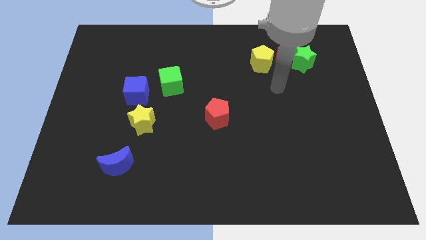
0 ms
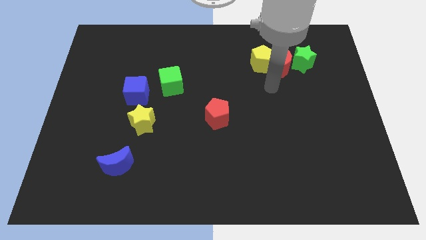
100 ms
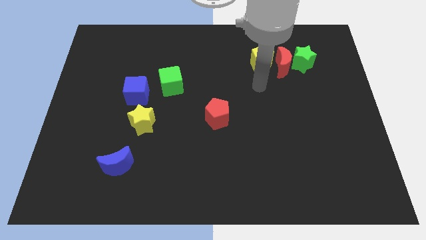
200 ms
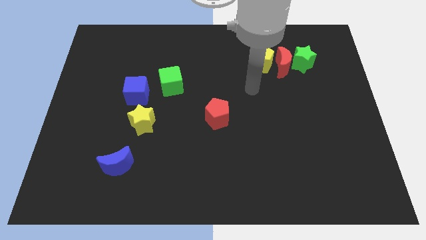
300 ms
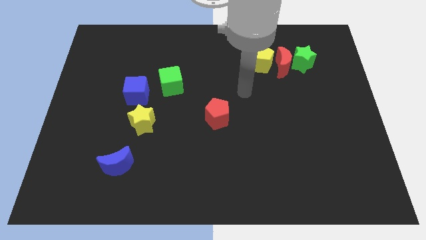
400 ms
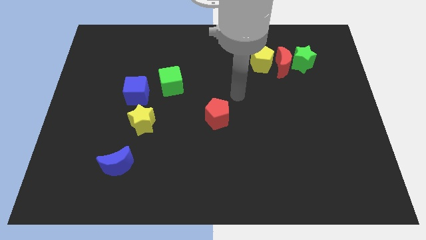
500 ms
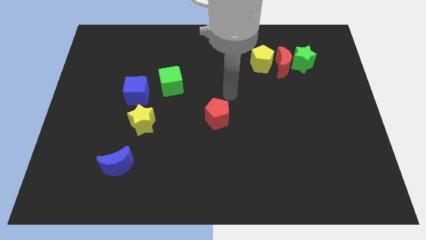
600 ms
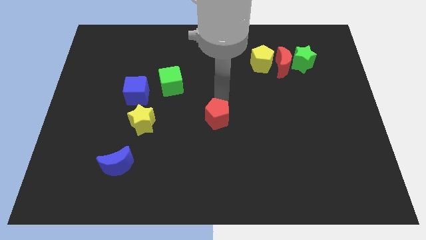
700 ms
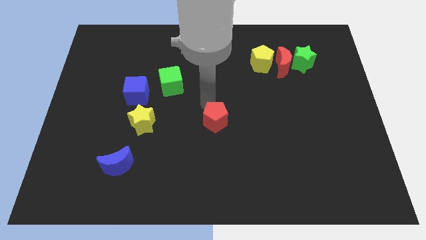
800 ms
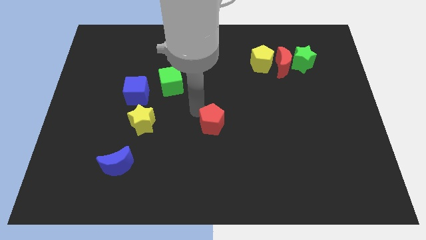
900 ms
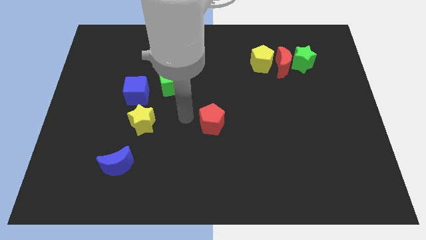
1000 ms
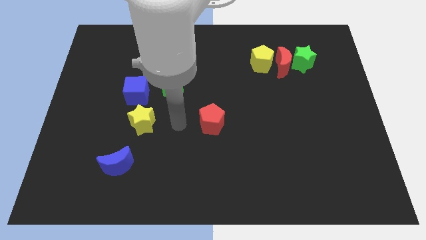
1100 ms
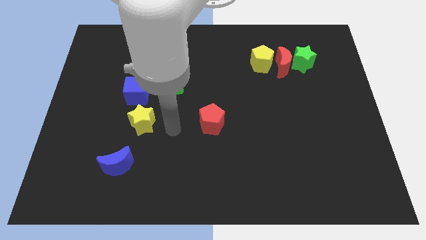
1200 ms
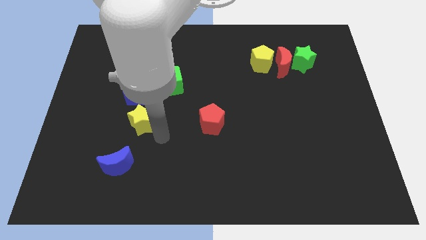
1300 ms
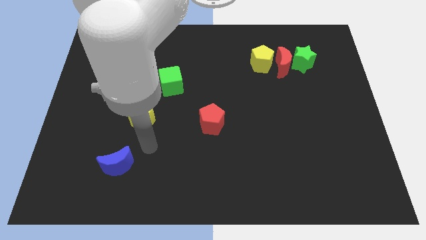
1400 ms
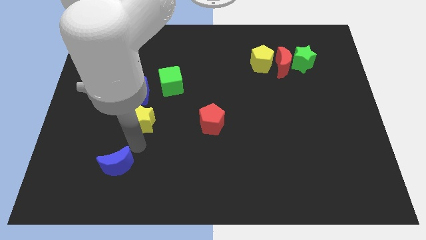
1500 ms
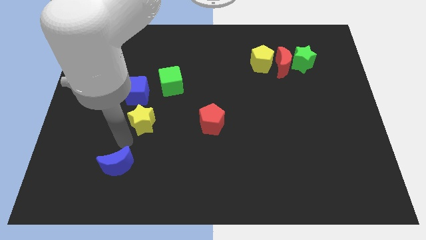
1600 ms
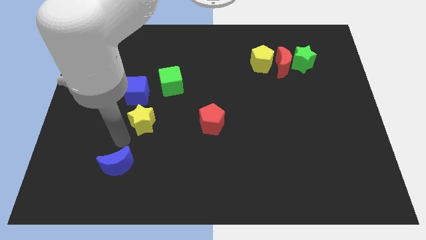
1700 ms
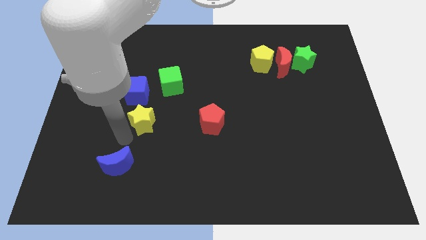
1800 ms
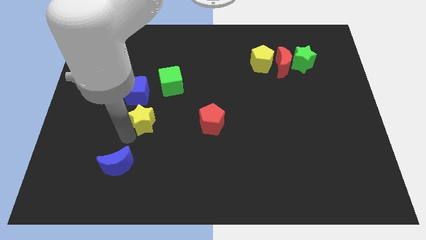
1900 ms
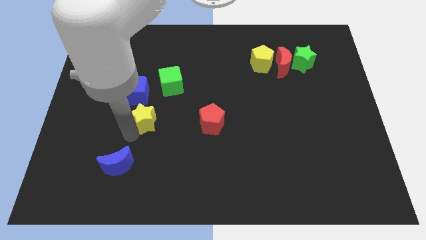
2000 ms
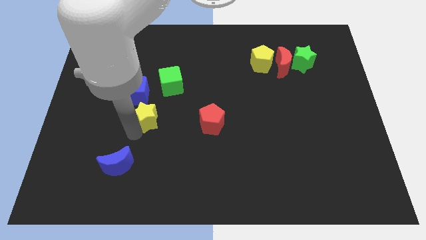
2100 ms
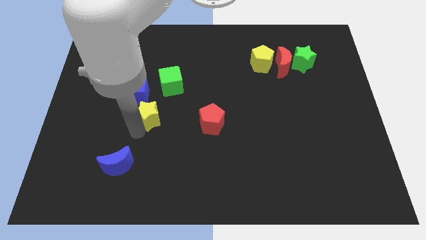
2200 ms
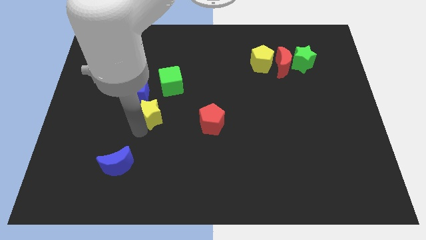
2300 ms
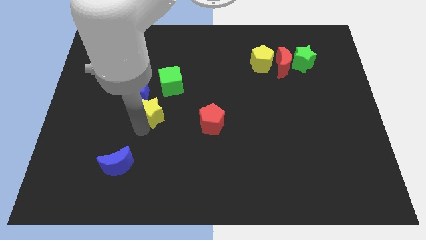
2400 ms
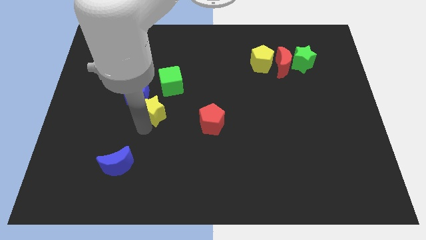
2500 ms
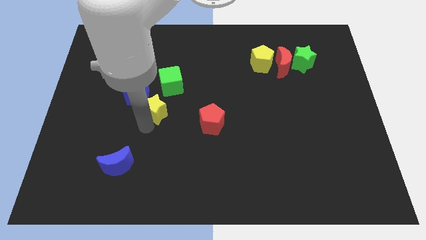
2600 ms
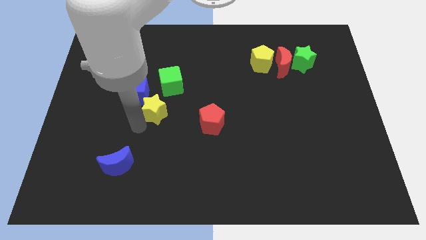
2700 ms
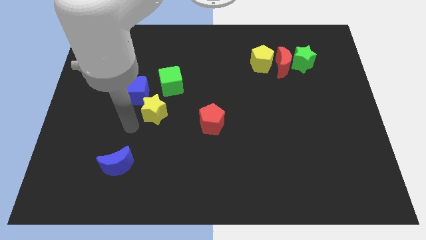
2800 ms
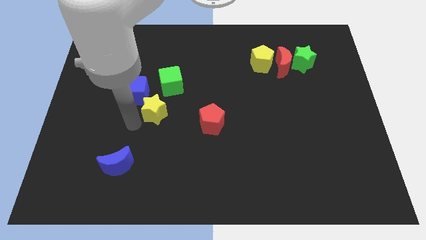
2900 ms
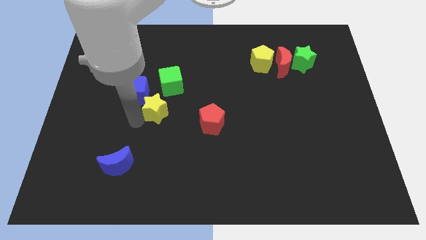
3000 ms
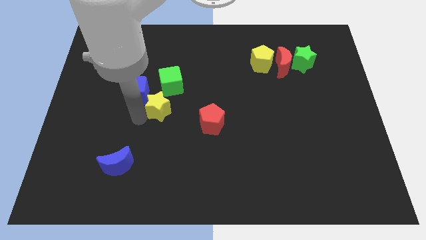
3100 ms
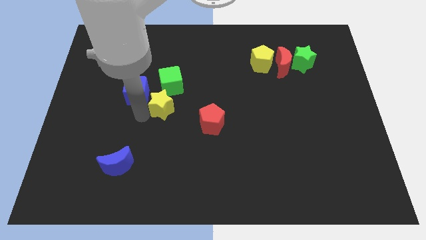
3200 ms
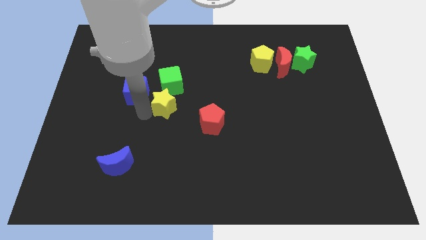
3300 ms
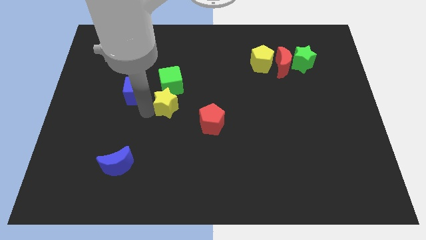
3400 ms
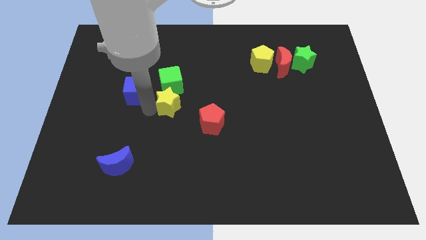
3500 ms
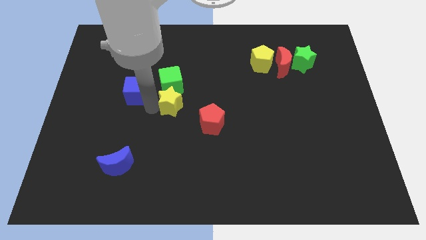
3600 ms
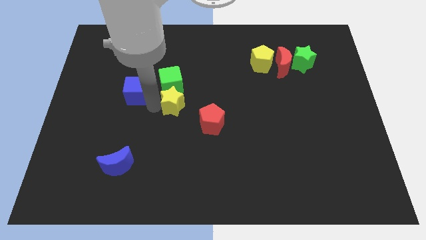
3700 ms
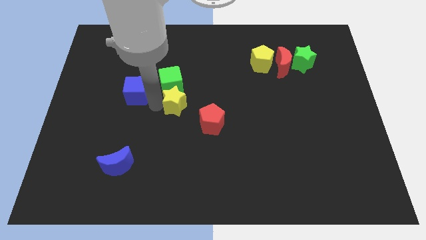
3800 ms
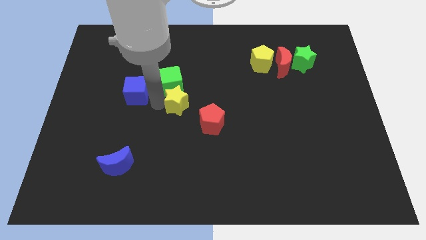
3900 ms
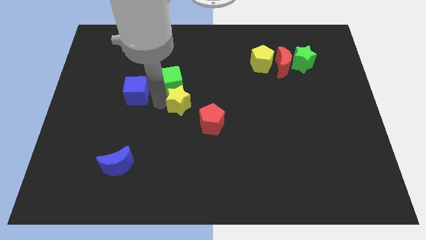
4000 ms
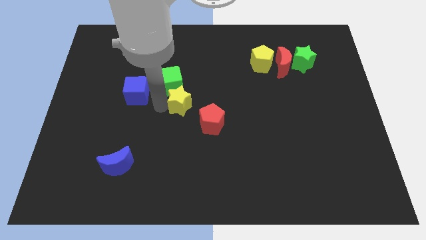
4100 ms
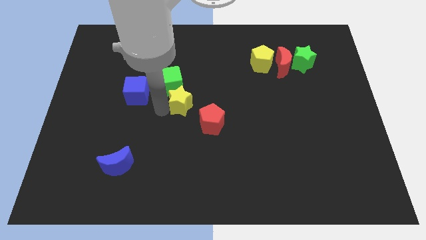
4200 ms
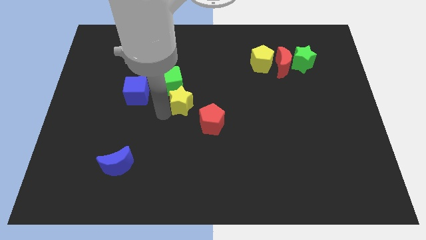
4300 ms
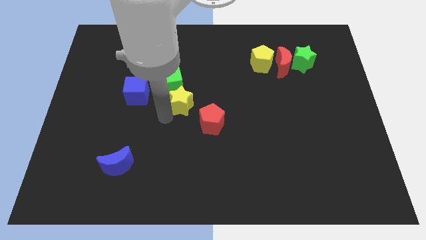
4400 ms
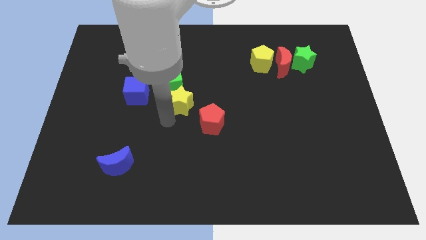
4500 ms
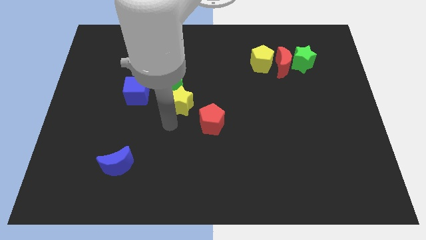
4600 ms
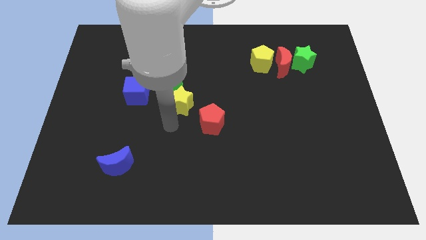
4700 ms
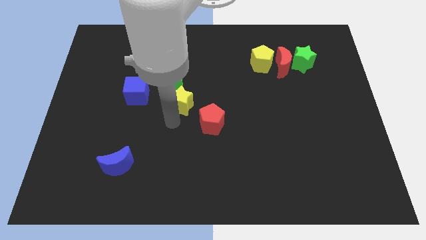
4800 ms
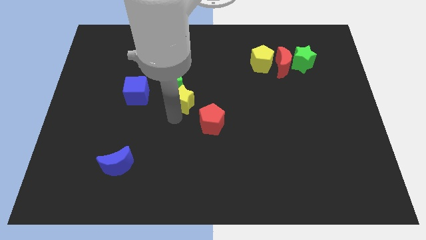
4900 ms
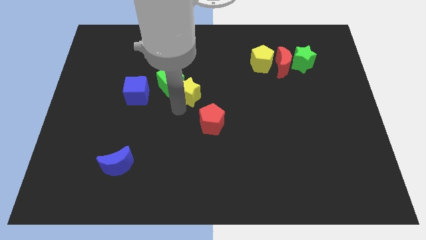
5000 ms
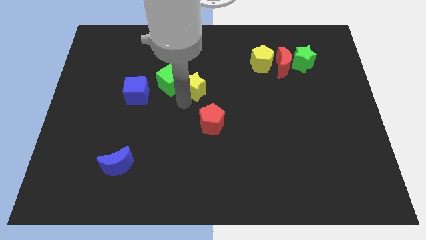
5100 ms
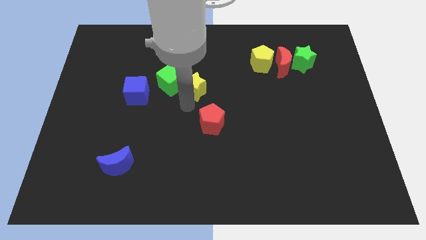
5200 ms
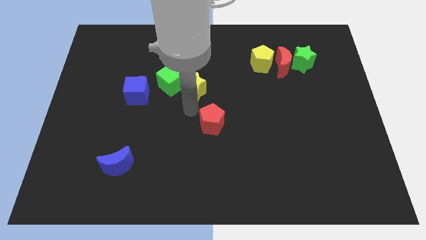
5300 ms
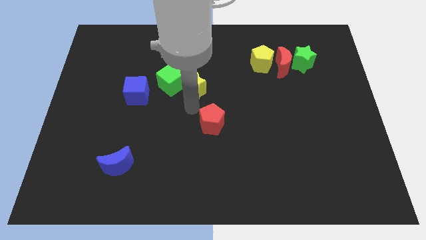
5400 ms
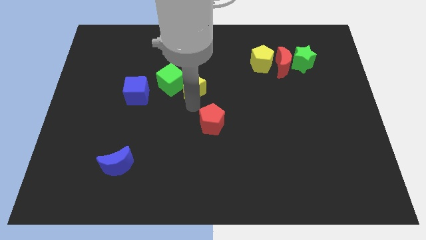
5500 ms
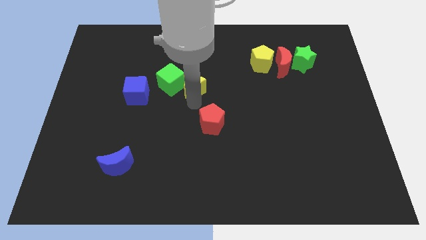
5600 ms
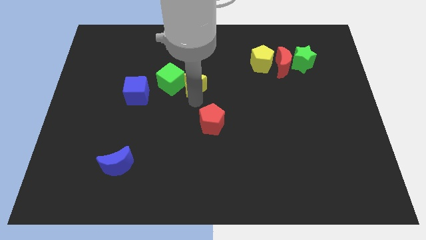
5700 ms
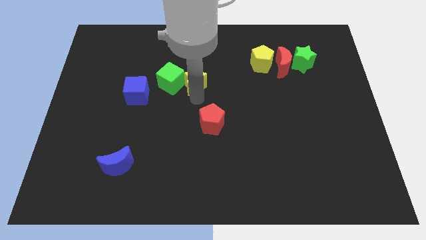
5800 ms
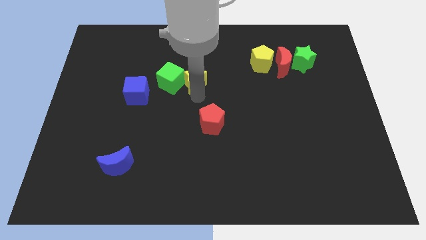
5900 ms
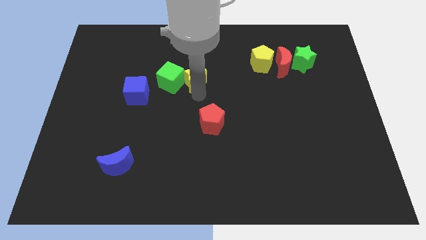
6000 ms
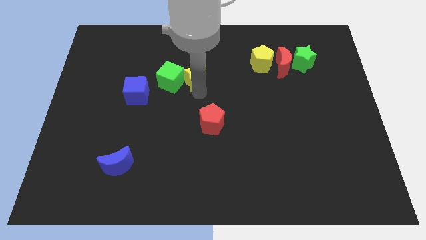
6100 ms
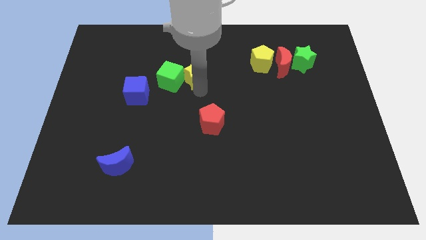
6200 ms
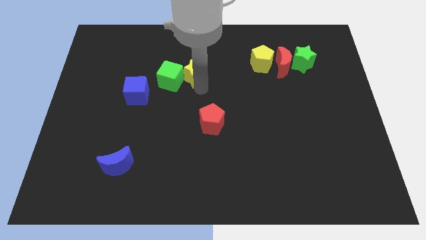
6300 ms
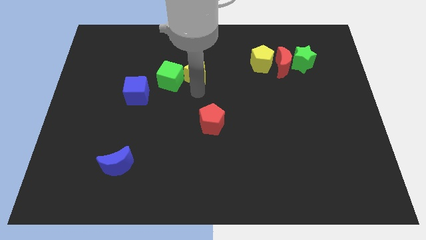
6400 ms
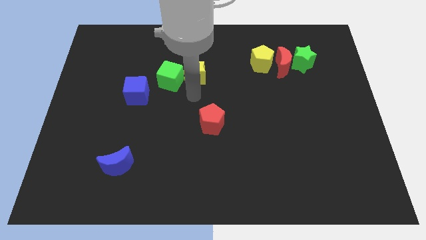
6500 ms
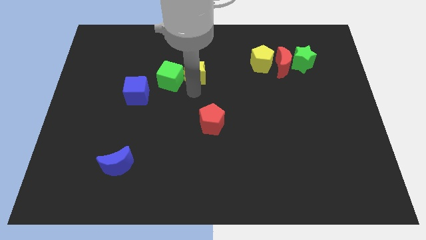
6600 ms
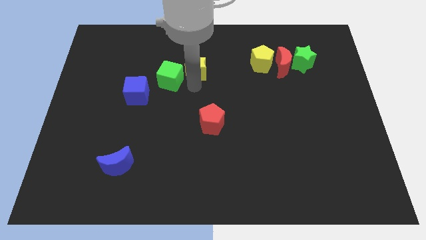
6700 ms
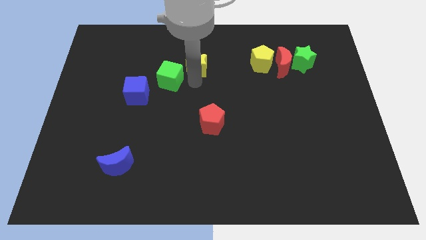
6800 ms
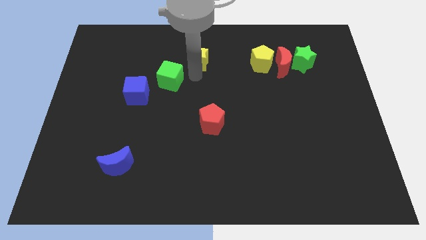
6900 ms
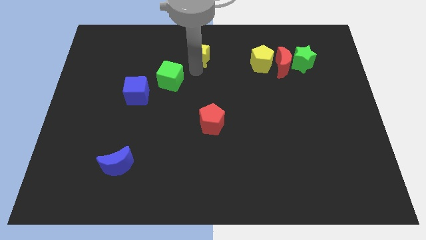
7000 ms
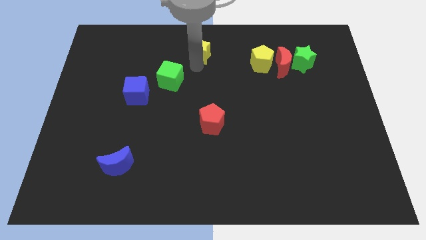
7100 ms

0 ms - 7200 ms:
push the yellow star to the towards your base
